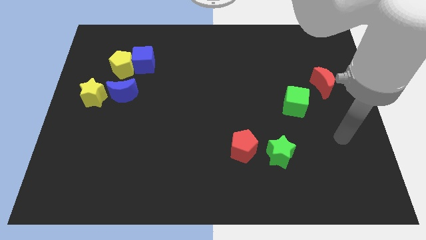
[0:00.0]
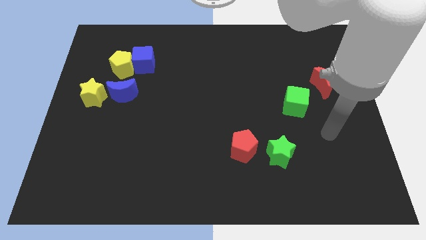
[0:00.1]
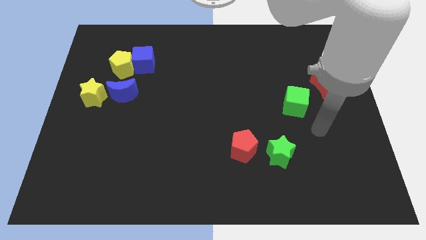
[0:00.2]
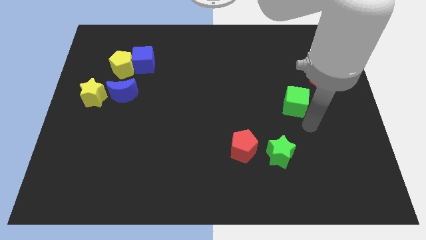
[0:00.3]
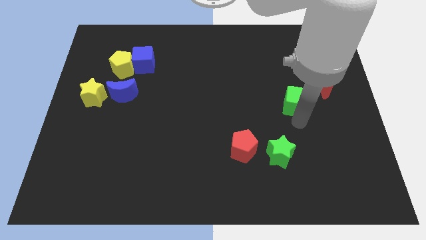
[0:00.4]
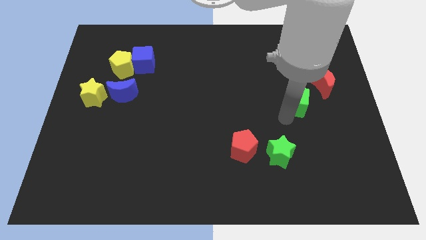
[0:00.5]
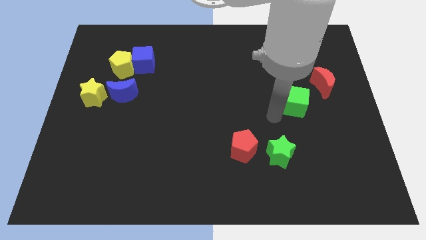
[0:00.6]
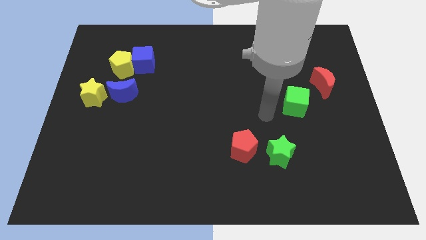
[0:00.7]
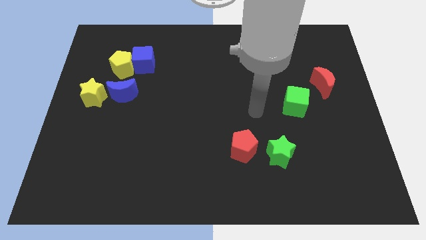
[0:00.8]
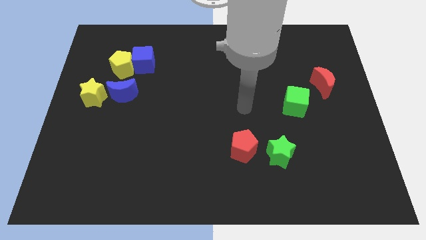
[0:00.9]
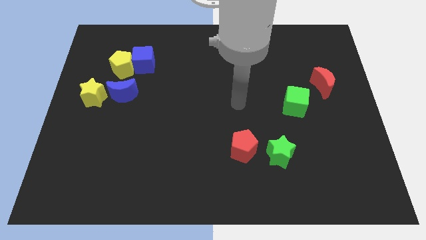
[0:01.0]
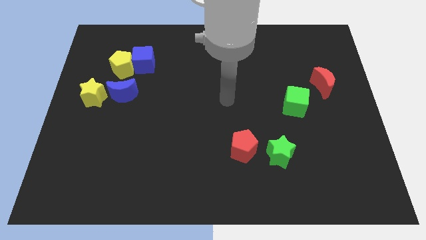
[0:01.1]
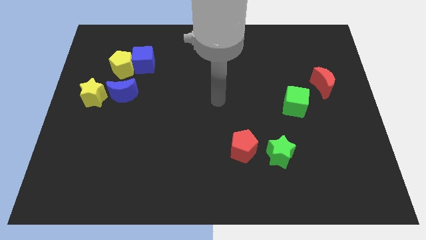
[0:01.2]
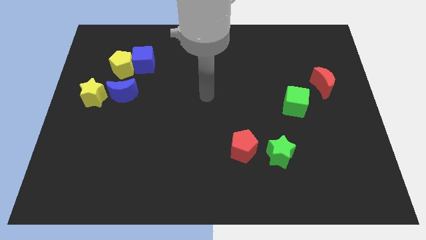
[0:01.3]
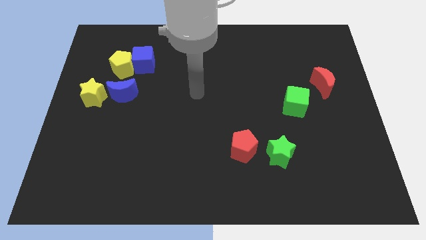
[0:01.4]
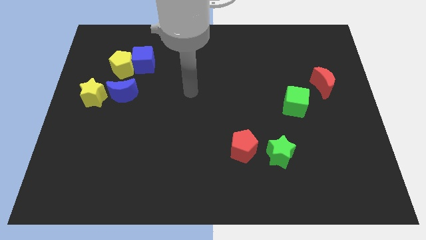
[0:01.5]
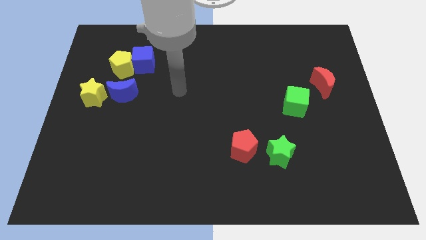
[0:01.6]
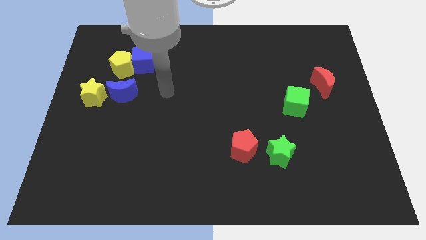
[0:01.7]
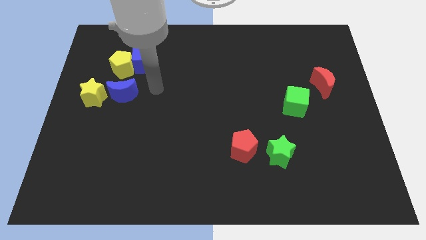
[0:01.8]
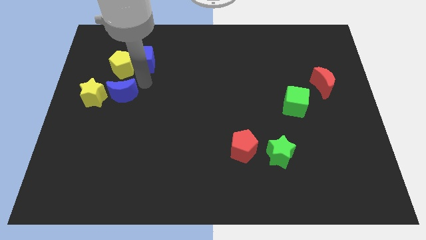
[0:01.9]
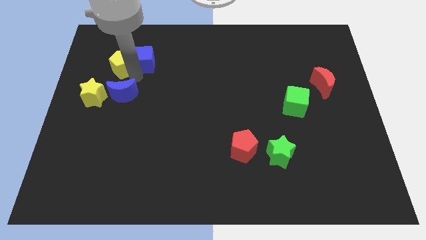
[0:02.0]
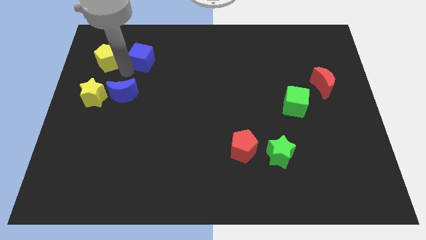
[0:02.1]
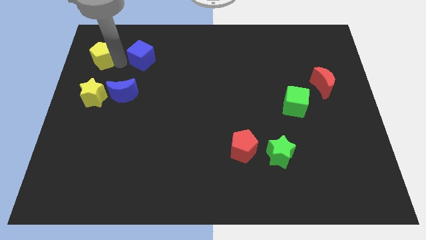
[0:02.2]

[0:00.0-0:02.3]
pull the blue cube apart from the yellow pentagon

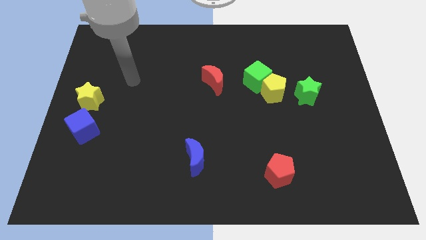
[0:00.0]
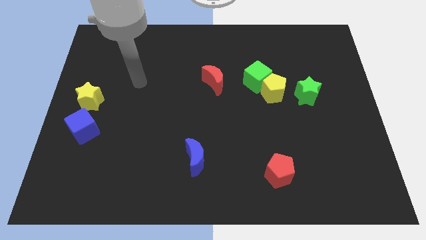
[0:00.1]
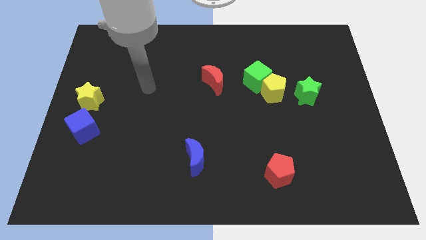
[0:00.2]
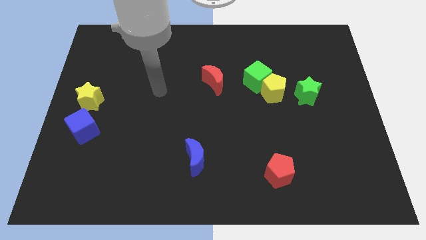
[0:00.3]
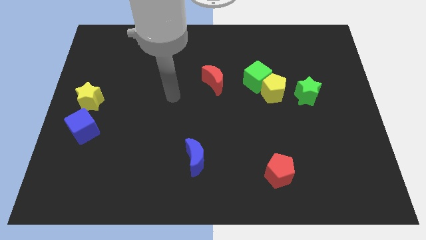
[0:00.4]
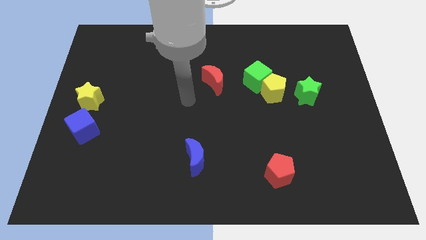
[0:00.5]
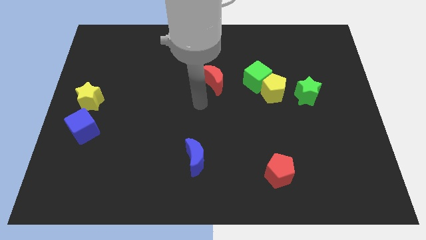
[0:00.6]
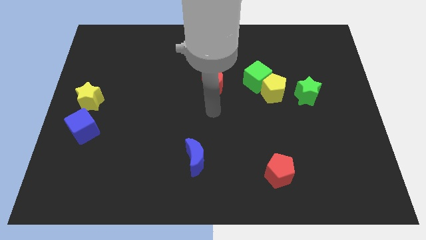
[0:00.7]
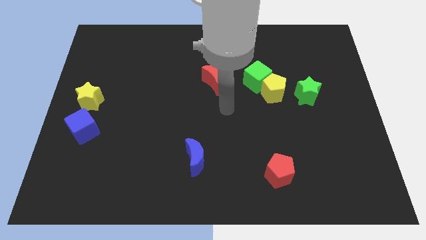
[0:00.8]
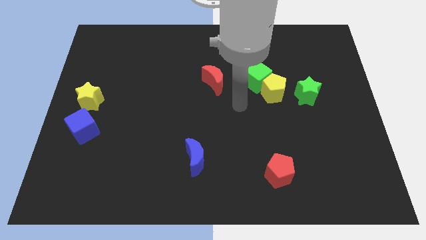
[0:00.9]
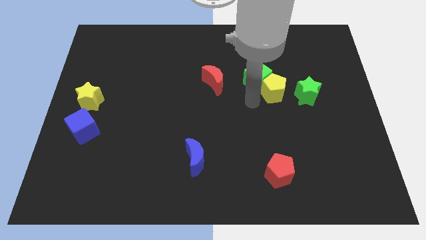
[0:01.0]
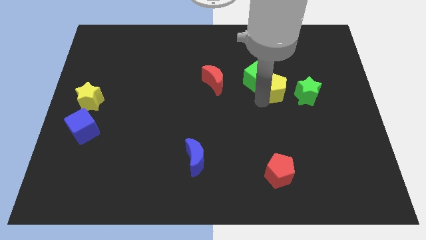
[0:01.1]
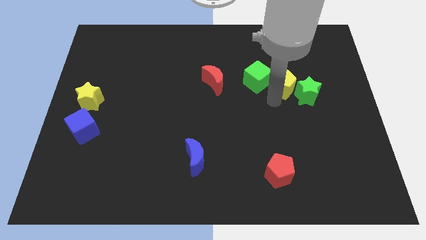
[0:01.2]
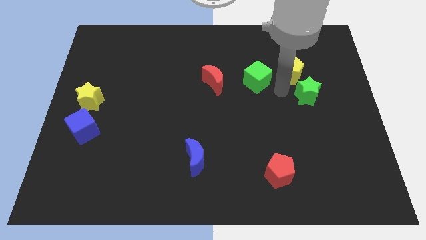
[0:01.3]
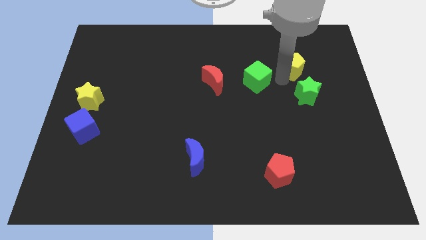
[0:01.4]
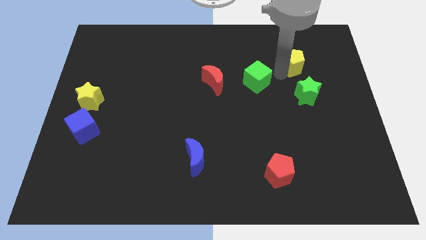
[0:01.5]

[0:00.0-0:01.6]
separate the green cube from the yellow pentagon

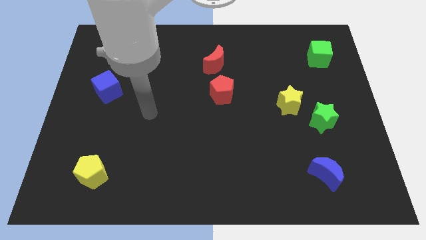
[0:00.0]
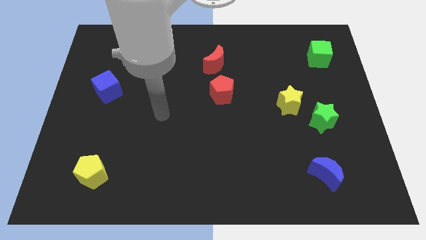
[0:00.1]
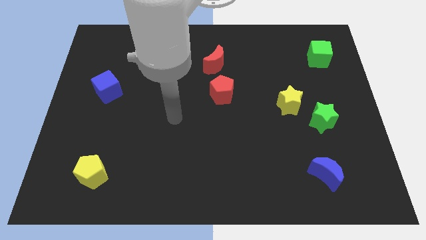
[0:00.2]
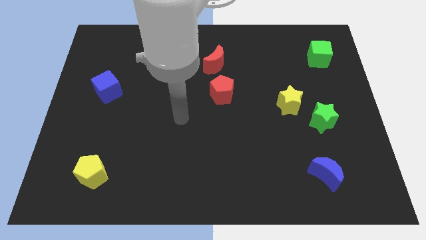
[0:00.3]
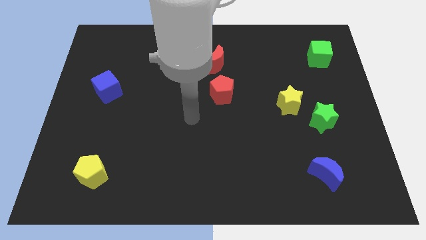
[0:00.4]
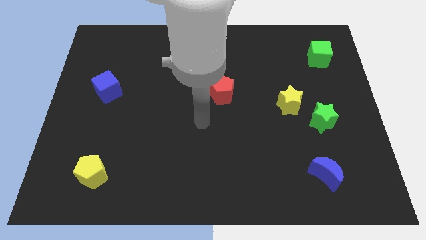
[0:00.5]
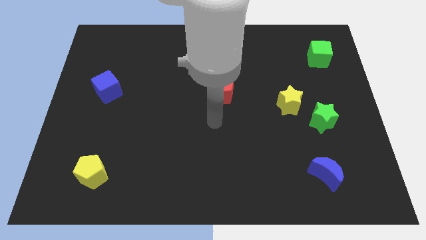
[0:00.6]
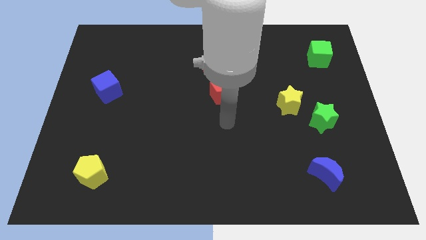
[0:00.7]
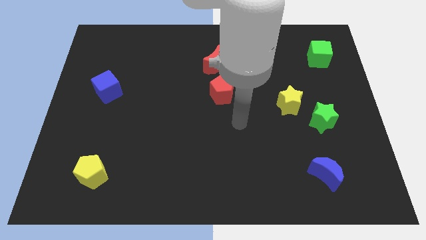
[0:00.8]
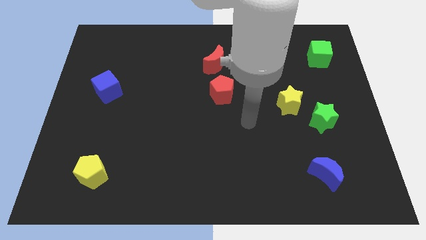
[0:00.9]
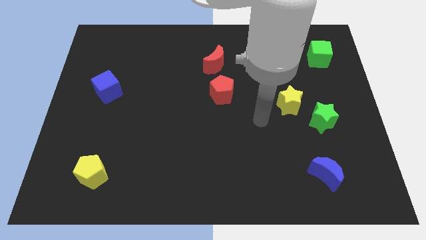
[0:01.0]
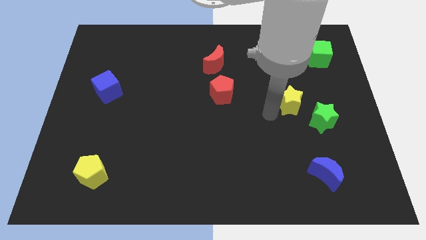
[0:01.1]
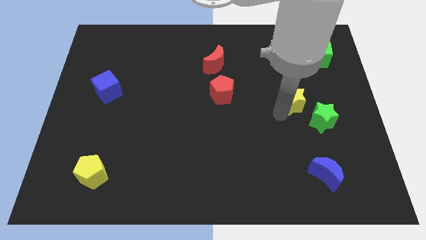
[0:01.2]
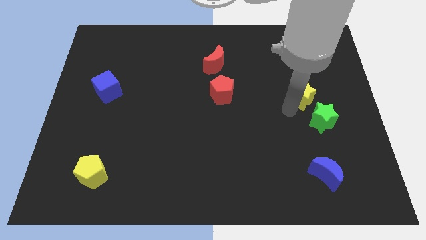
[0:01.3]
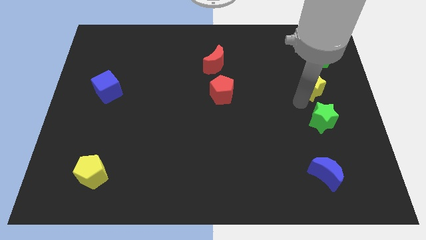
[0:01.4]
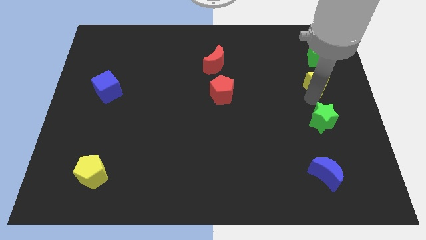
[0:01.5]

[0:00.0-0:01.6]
pull the green star apart from the yellow star

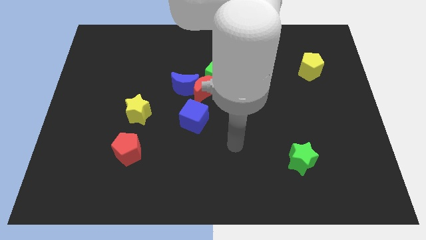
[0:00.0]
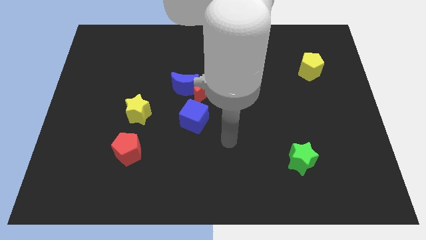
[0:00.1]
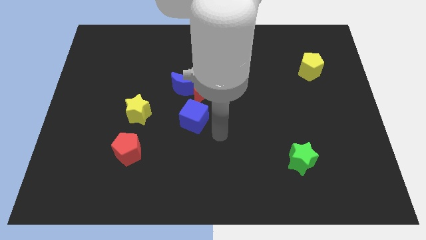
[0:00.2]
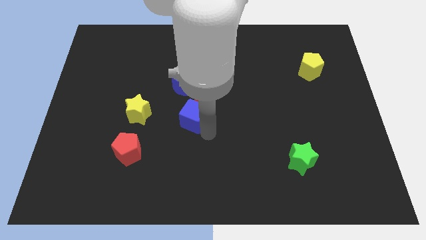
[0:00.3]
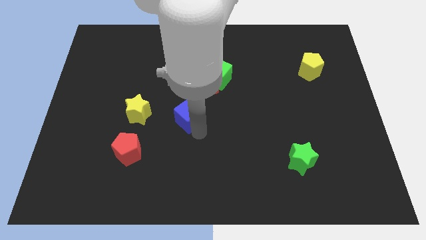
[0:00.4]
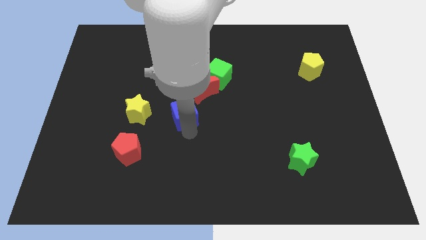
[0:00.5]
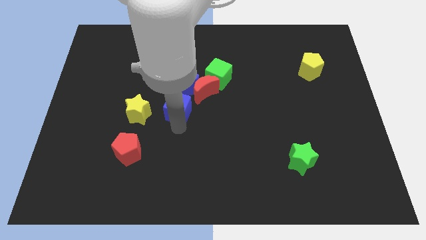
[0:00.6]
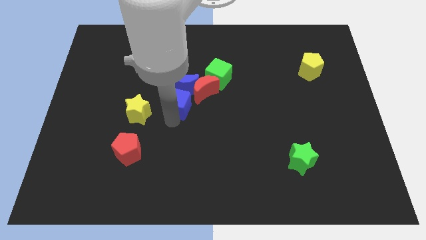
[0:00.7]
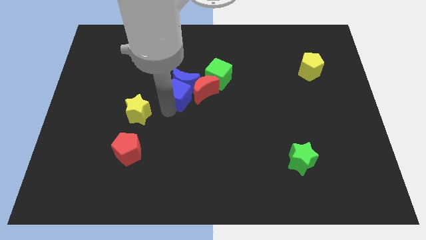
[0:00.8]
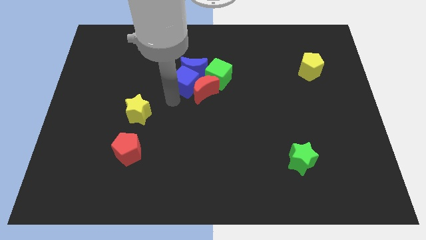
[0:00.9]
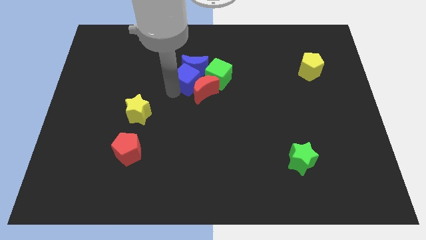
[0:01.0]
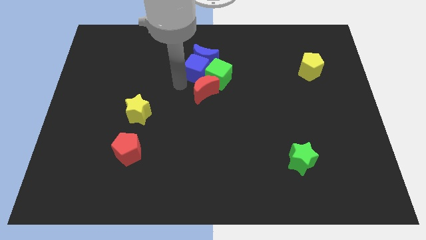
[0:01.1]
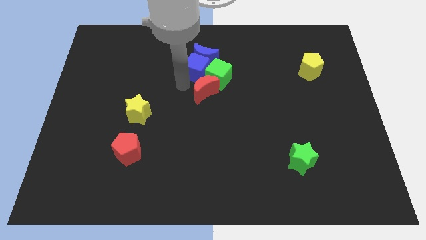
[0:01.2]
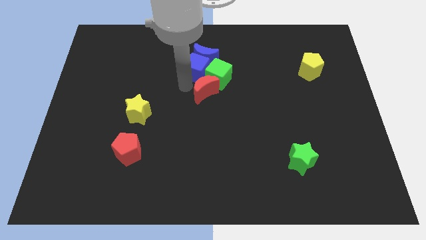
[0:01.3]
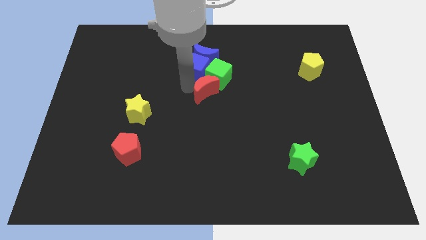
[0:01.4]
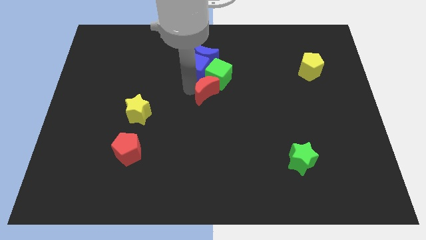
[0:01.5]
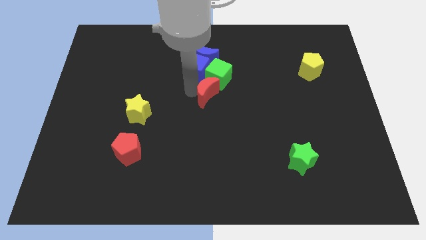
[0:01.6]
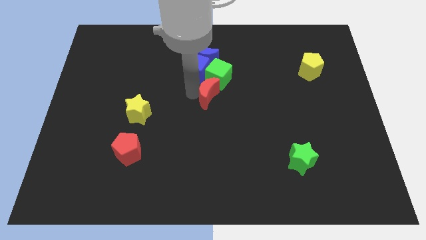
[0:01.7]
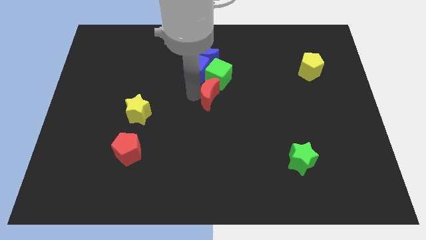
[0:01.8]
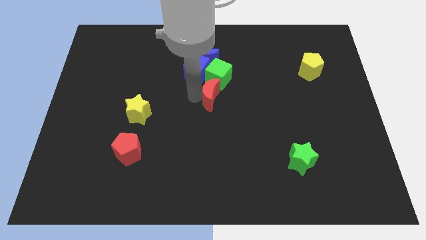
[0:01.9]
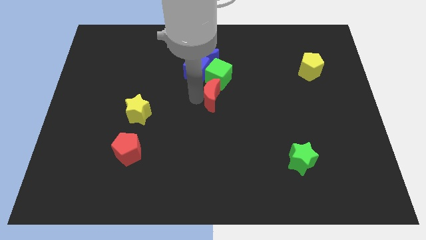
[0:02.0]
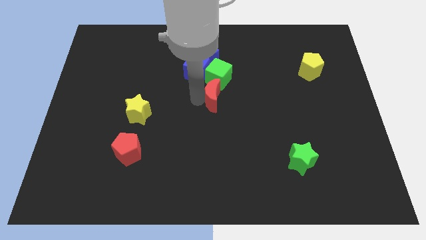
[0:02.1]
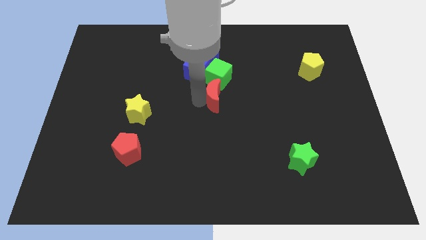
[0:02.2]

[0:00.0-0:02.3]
separate the red moon from the blue moon, green cube, and blue cube

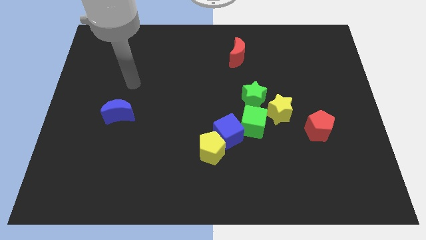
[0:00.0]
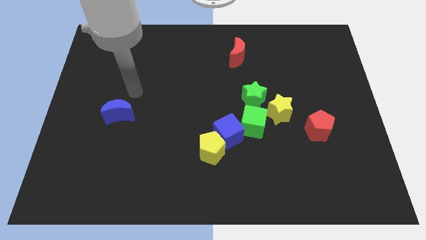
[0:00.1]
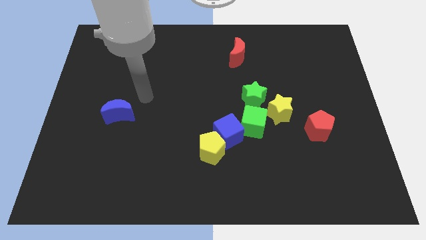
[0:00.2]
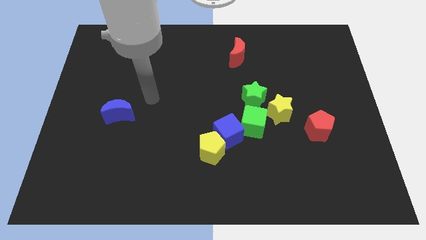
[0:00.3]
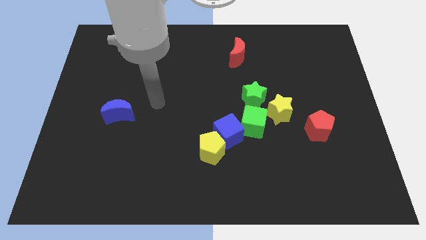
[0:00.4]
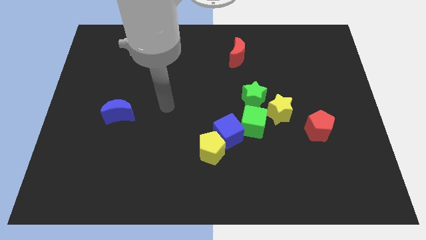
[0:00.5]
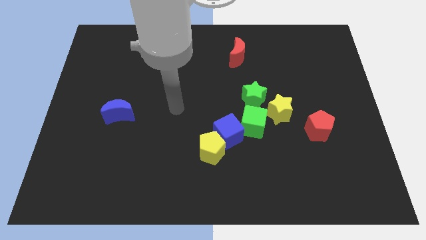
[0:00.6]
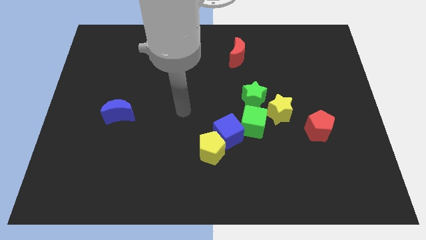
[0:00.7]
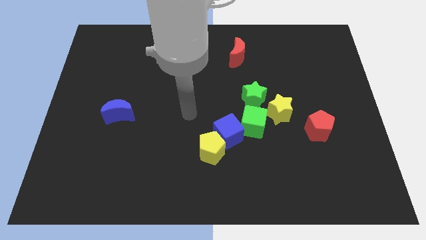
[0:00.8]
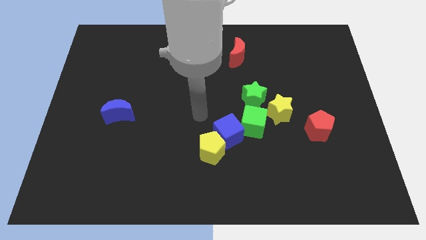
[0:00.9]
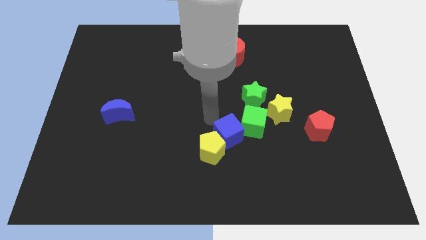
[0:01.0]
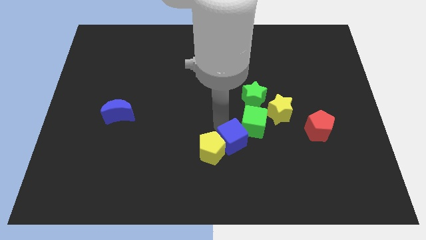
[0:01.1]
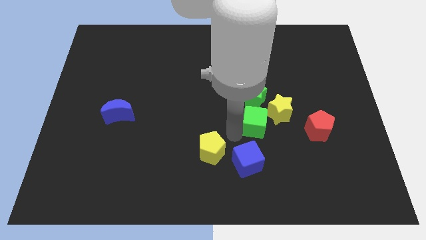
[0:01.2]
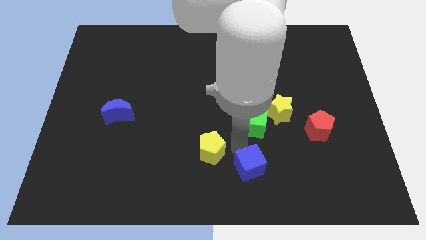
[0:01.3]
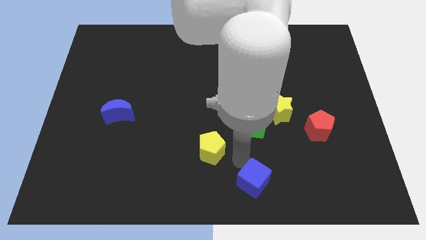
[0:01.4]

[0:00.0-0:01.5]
move the yellow pentagon away from the blue cube

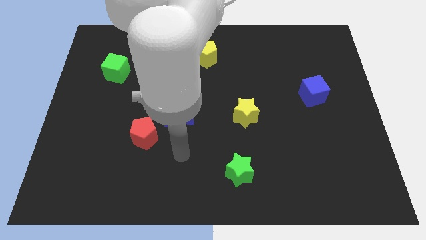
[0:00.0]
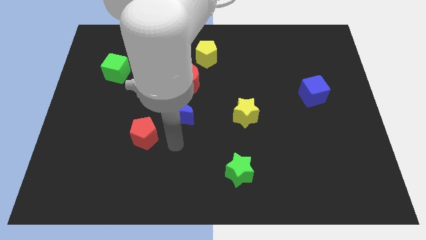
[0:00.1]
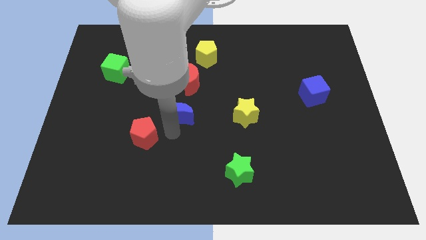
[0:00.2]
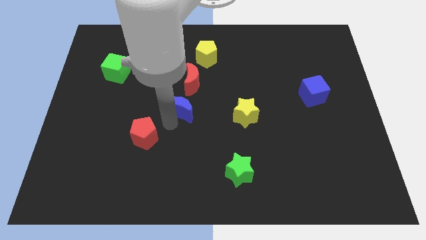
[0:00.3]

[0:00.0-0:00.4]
move the red pentagon away from the blue moon
